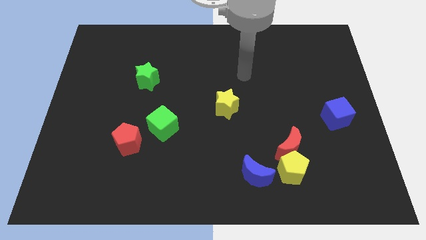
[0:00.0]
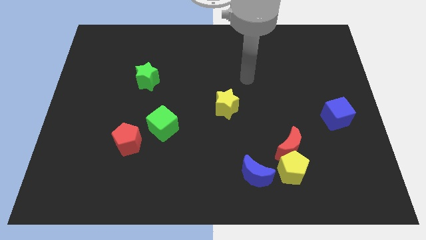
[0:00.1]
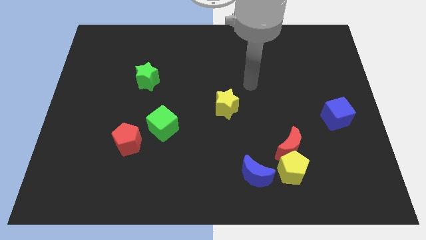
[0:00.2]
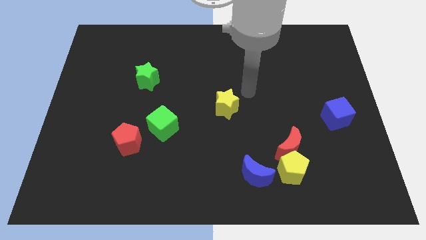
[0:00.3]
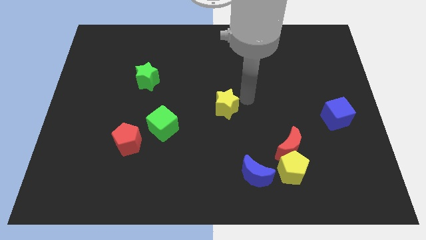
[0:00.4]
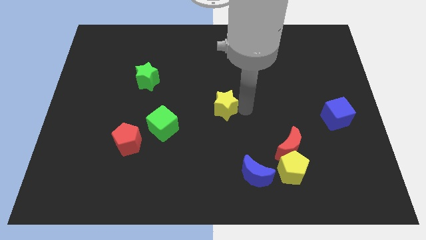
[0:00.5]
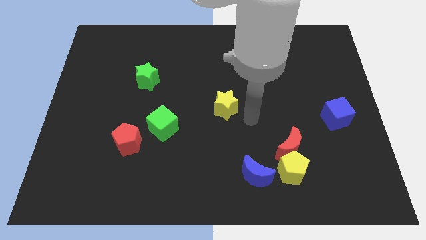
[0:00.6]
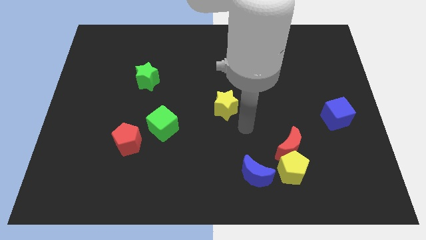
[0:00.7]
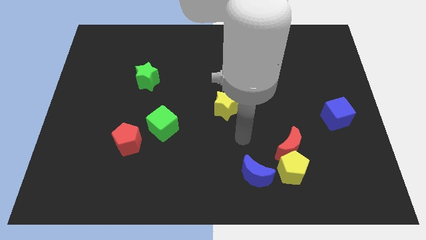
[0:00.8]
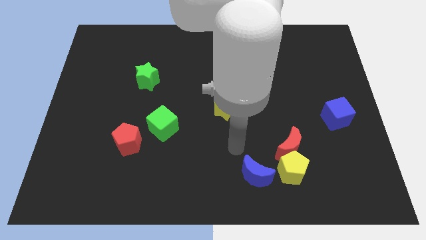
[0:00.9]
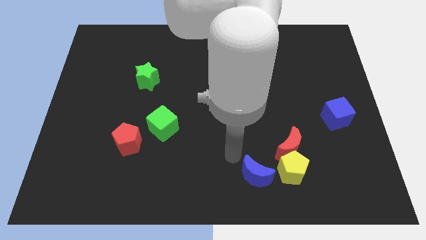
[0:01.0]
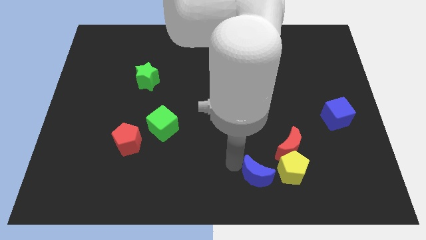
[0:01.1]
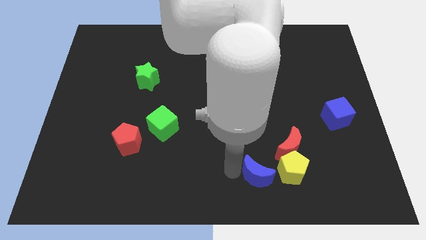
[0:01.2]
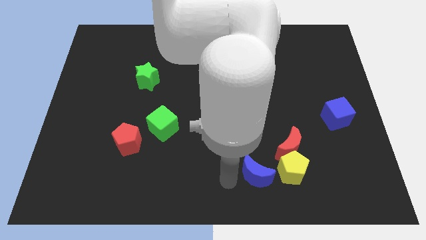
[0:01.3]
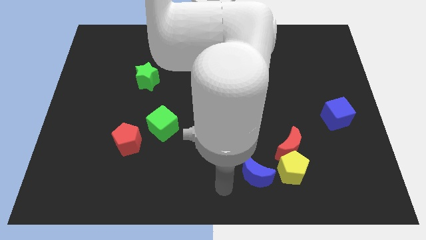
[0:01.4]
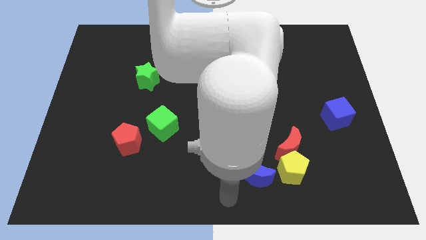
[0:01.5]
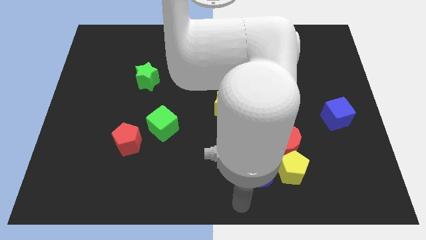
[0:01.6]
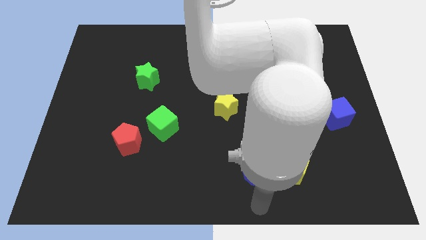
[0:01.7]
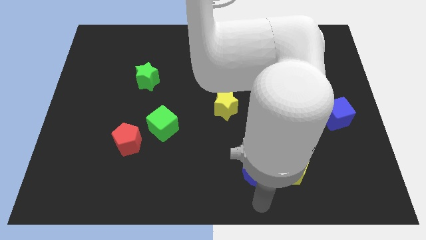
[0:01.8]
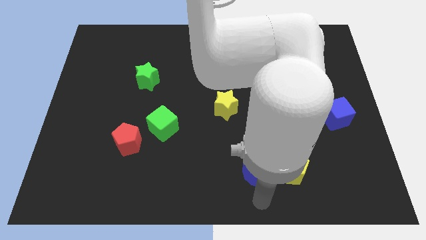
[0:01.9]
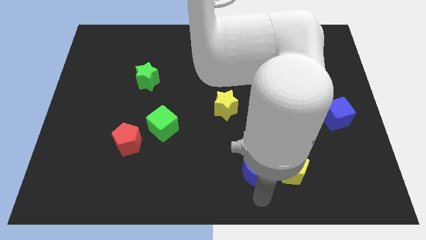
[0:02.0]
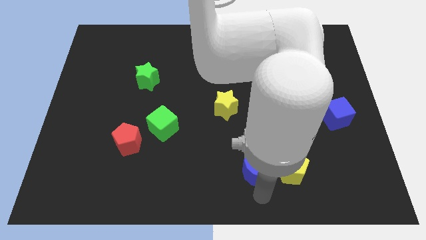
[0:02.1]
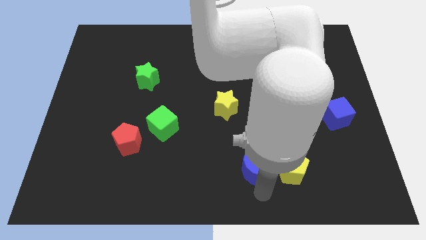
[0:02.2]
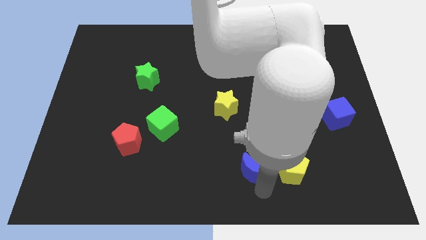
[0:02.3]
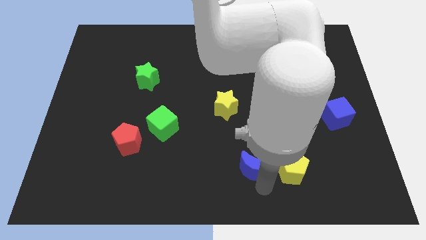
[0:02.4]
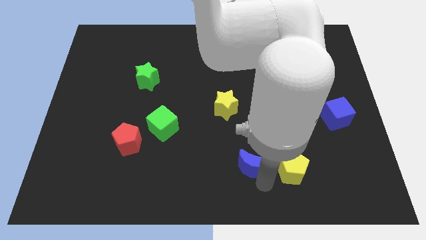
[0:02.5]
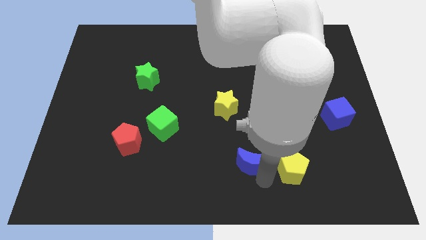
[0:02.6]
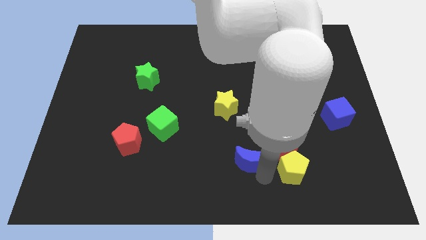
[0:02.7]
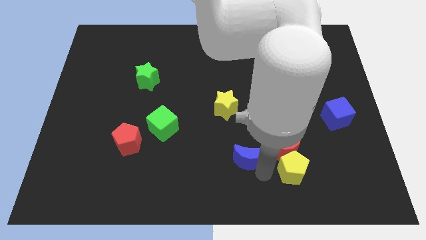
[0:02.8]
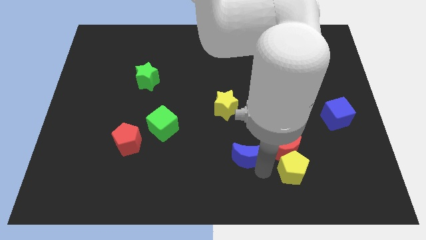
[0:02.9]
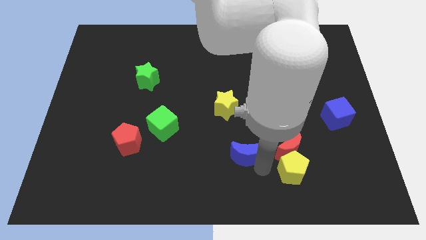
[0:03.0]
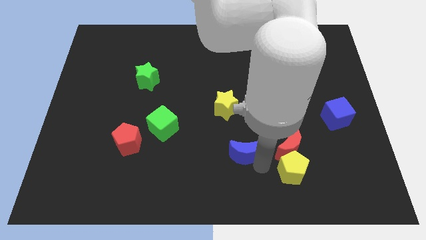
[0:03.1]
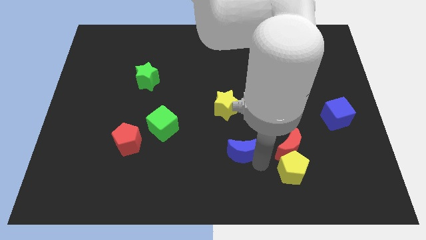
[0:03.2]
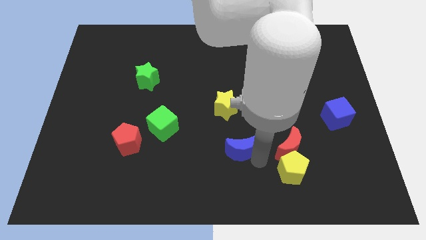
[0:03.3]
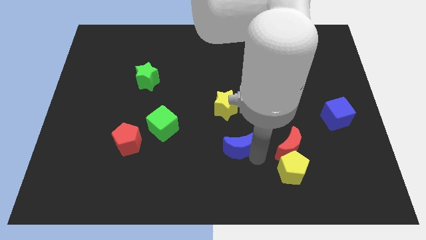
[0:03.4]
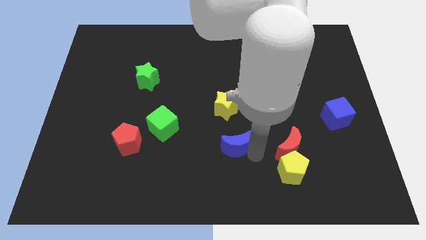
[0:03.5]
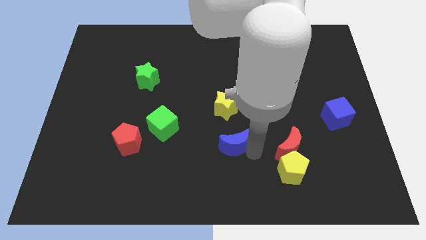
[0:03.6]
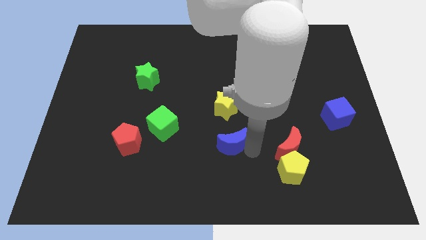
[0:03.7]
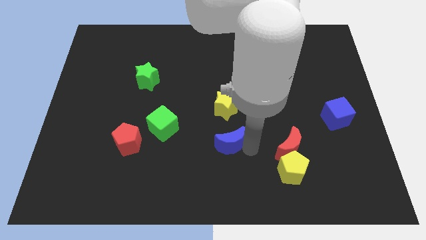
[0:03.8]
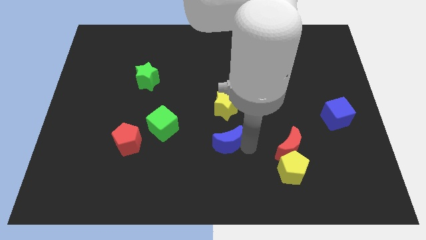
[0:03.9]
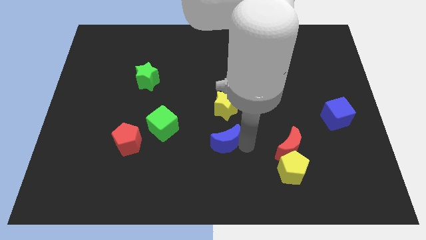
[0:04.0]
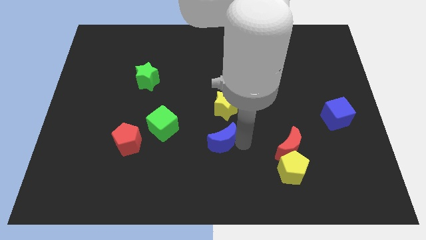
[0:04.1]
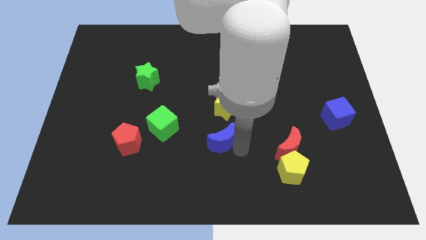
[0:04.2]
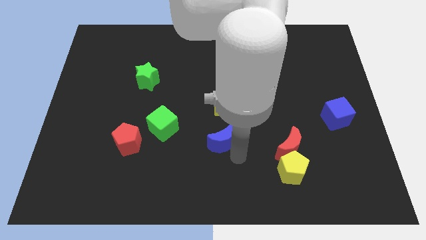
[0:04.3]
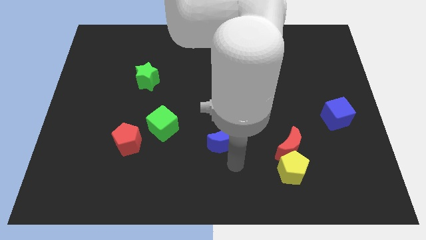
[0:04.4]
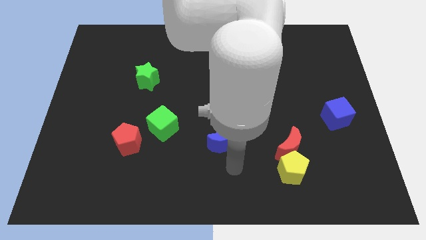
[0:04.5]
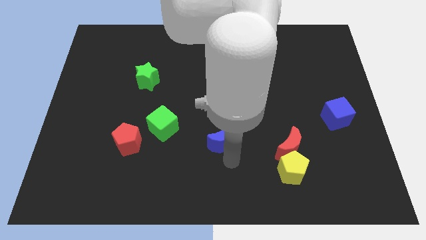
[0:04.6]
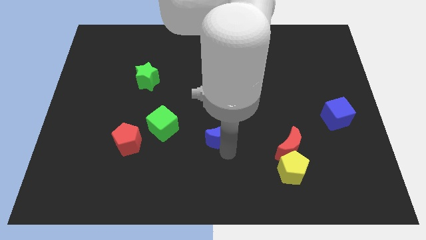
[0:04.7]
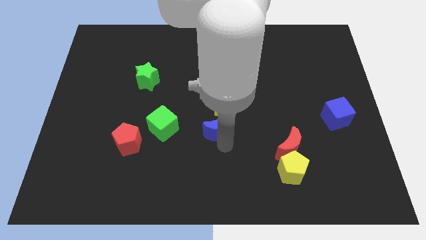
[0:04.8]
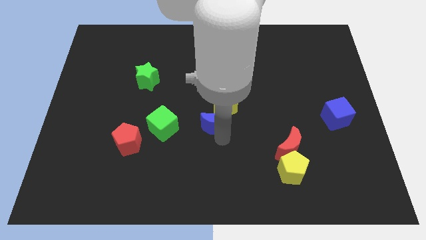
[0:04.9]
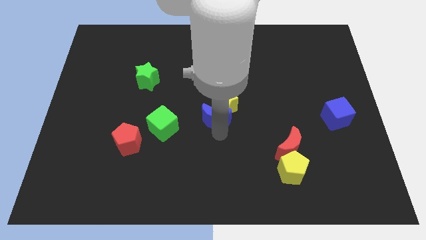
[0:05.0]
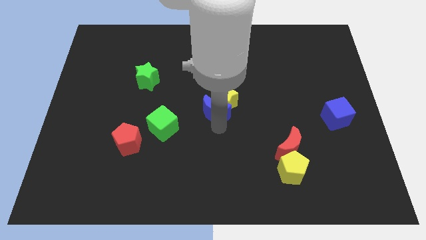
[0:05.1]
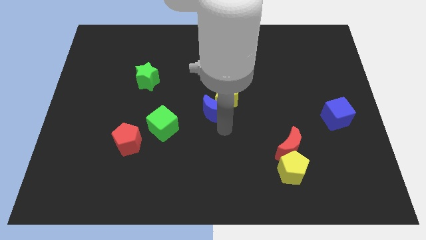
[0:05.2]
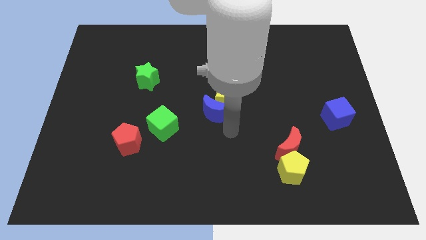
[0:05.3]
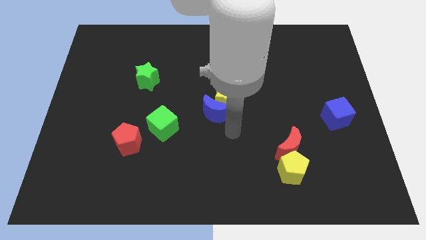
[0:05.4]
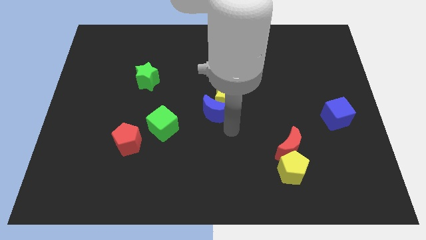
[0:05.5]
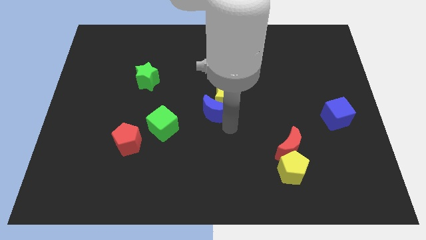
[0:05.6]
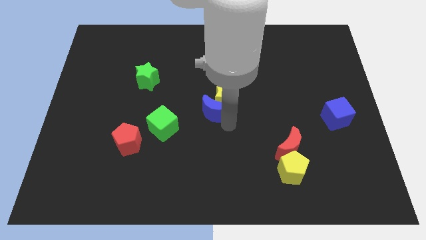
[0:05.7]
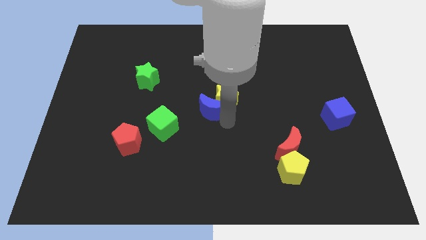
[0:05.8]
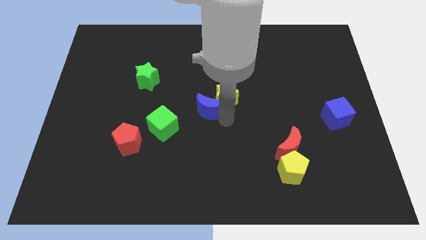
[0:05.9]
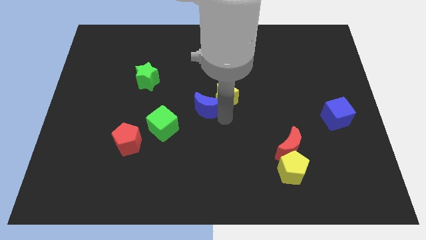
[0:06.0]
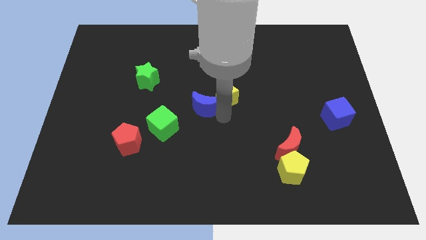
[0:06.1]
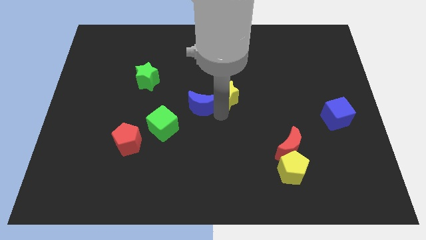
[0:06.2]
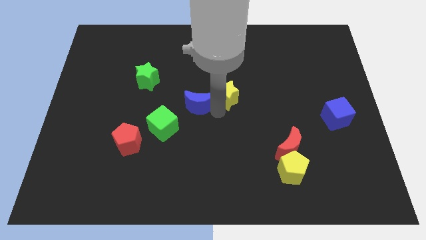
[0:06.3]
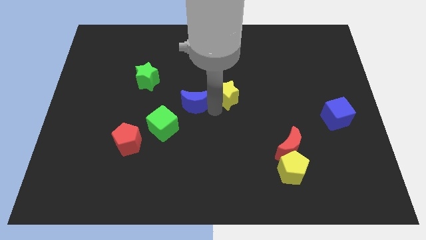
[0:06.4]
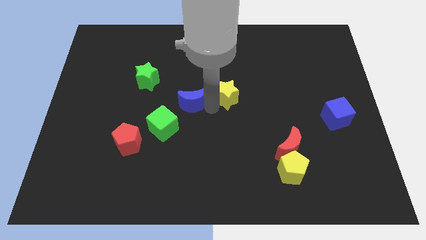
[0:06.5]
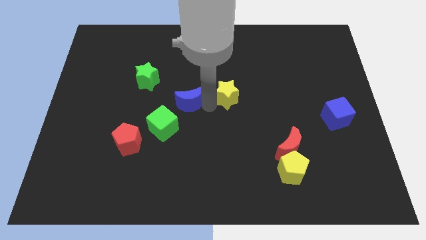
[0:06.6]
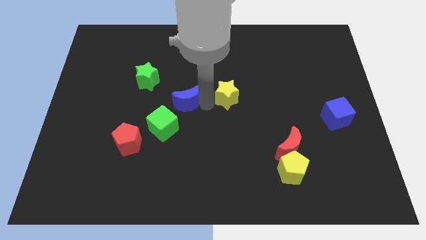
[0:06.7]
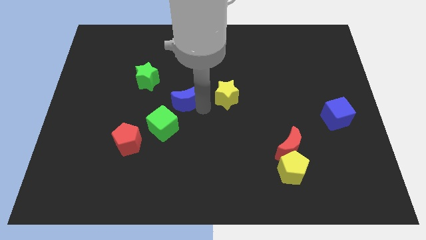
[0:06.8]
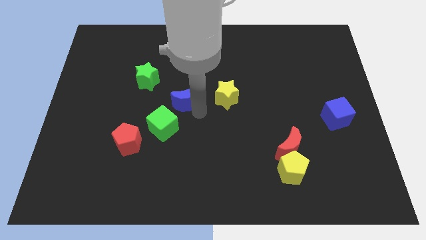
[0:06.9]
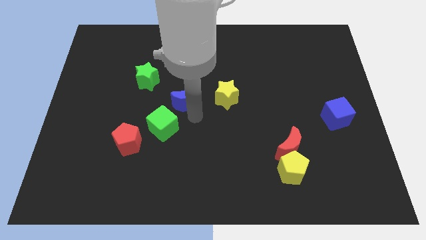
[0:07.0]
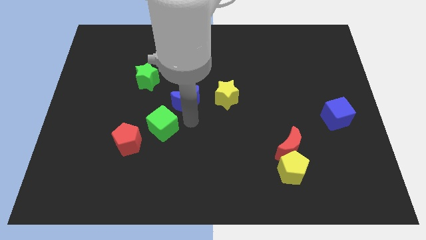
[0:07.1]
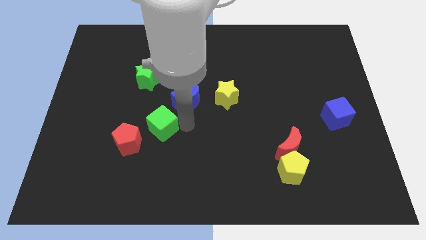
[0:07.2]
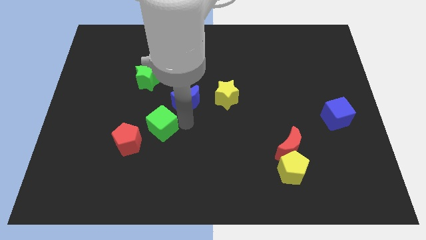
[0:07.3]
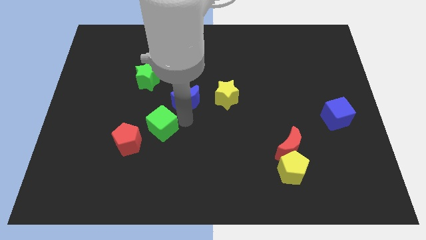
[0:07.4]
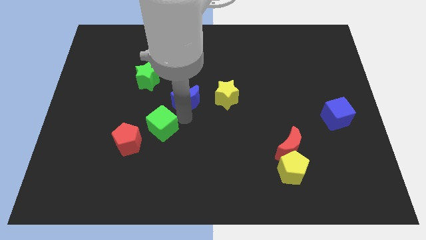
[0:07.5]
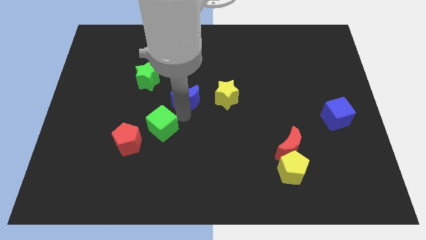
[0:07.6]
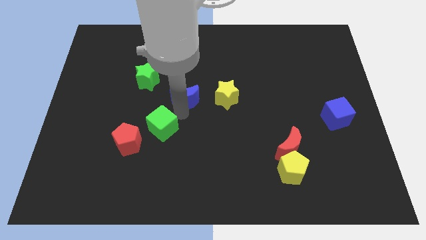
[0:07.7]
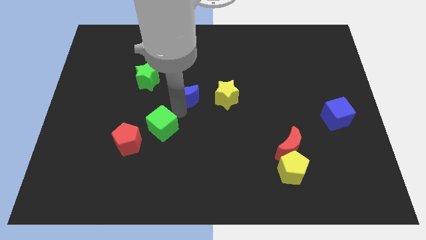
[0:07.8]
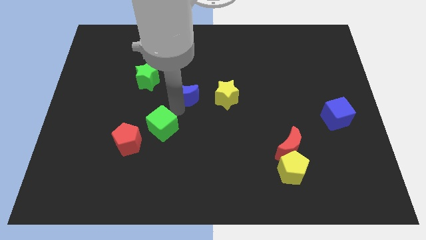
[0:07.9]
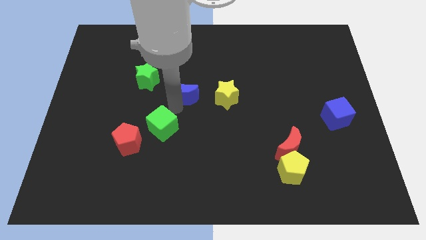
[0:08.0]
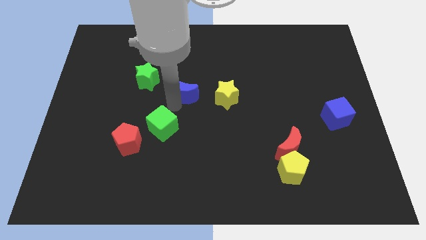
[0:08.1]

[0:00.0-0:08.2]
push the blue moon to the right of the green star
